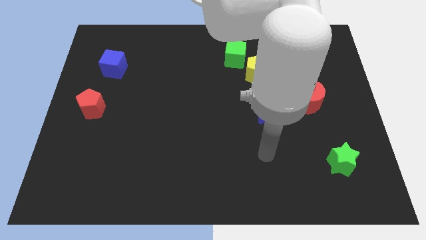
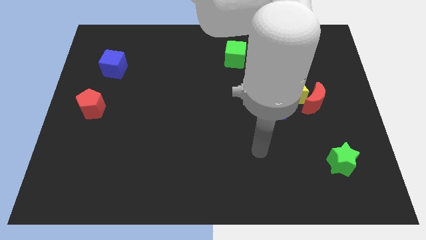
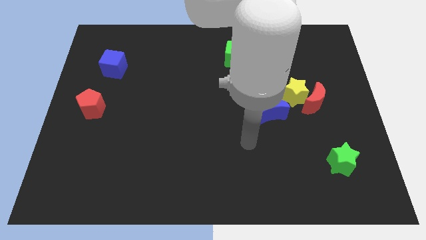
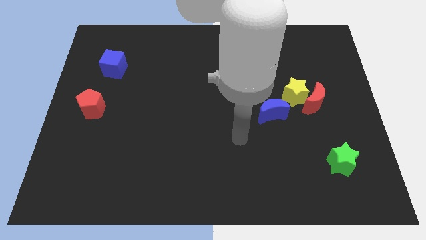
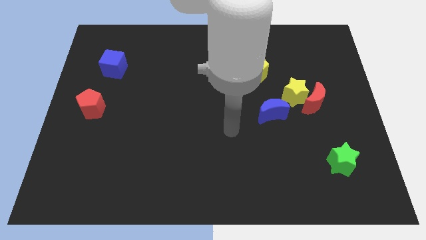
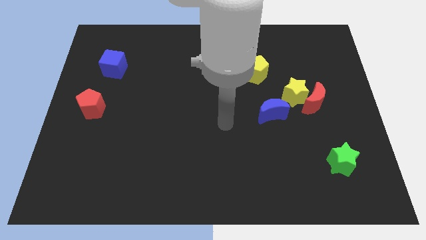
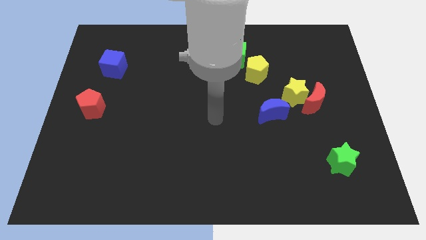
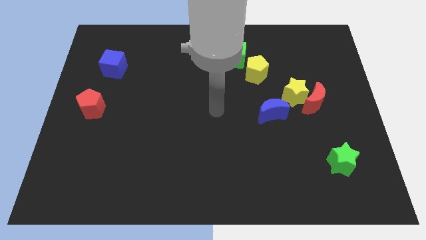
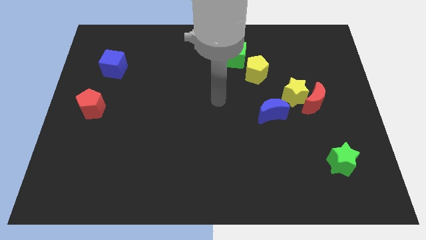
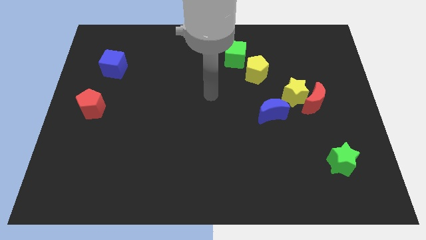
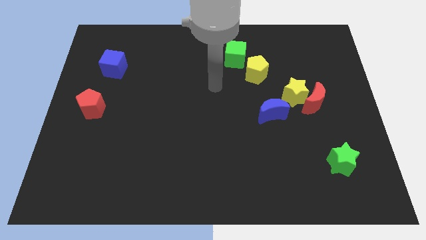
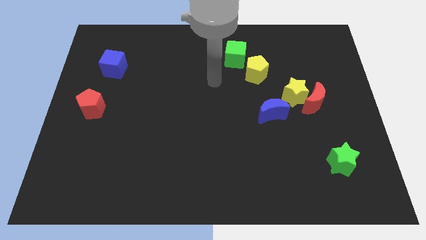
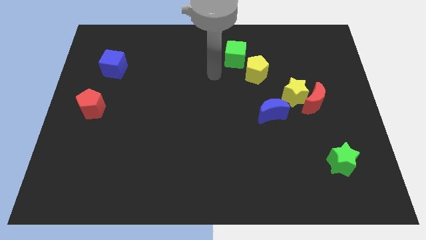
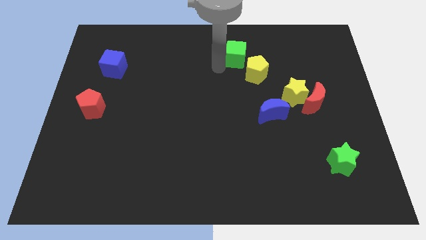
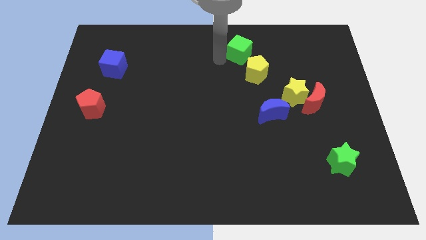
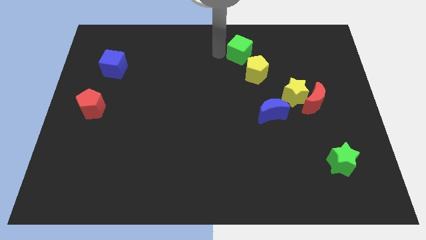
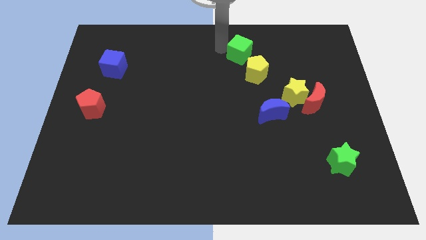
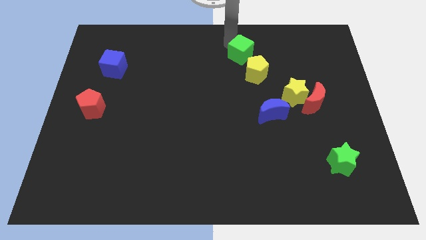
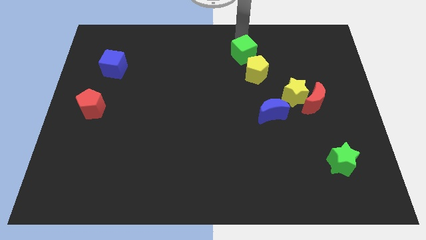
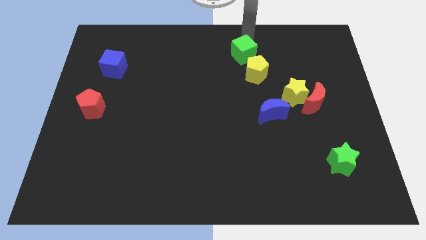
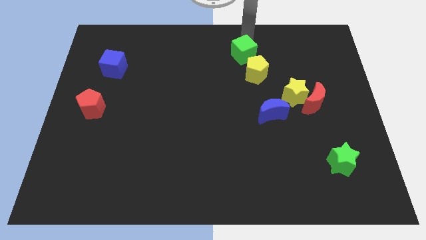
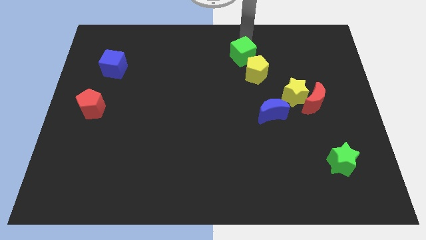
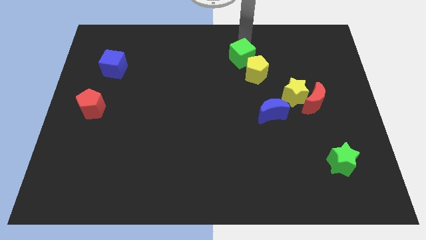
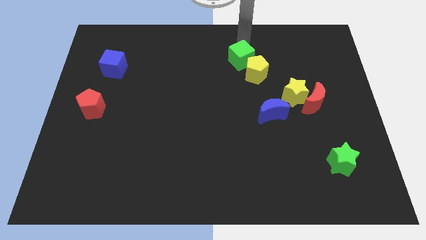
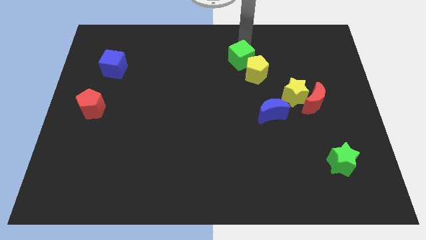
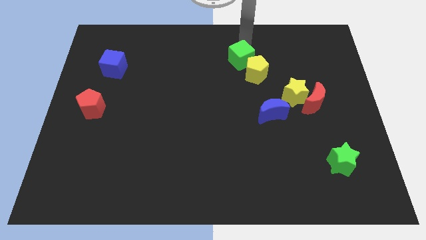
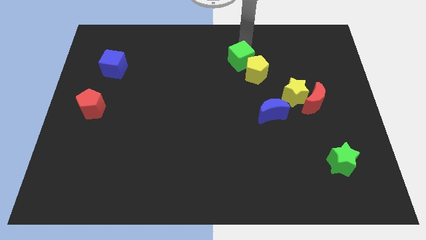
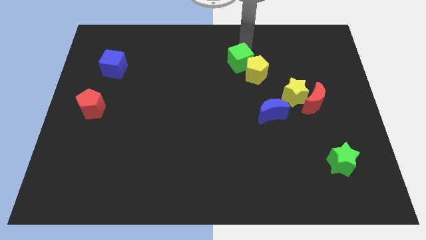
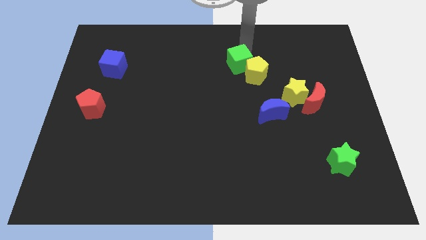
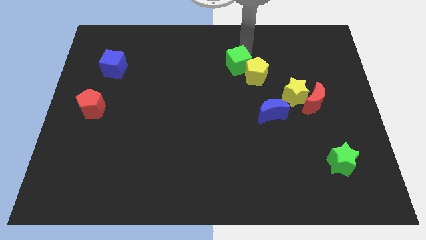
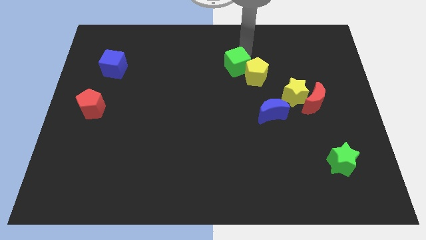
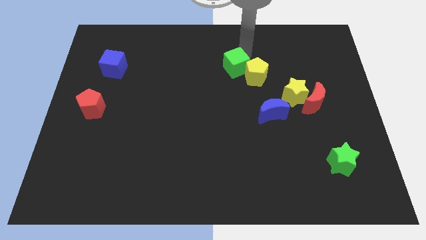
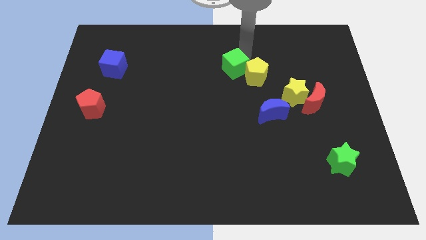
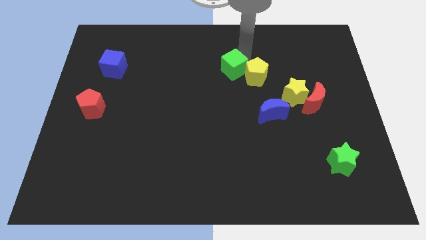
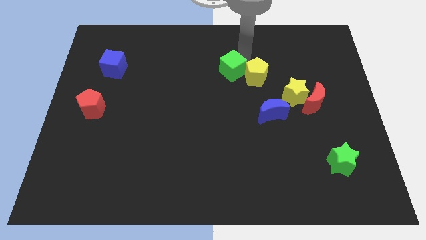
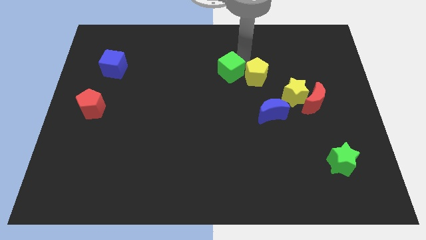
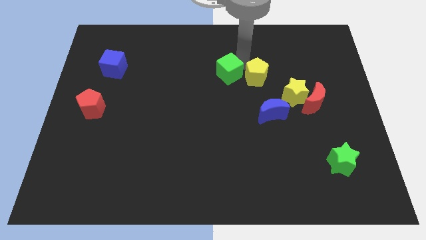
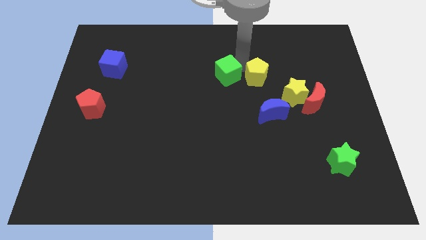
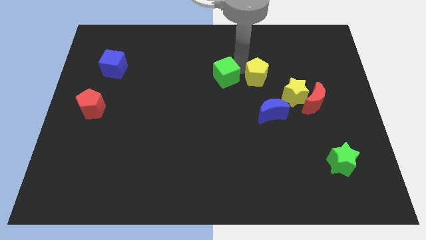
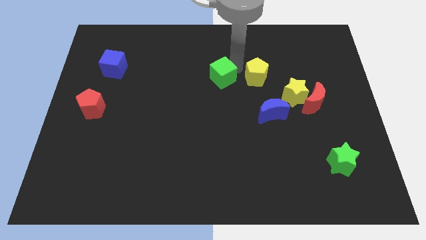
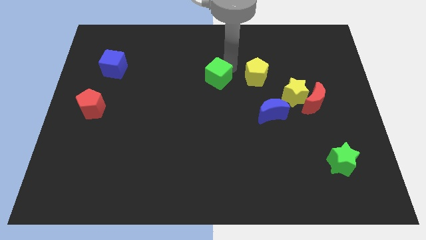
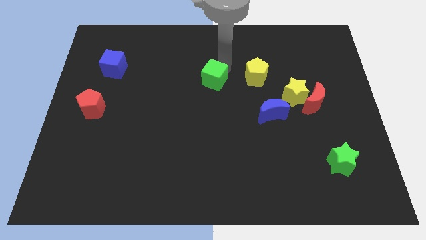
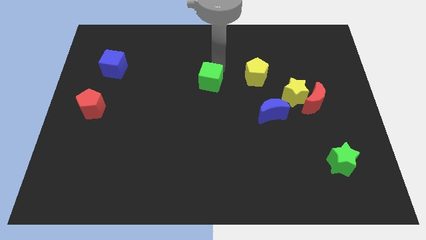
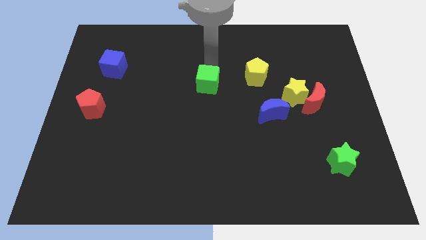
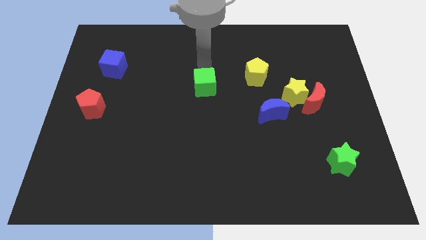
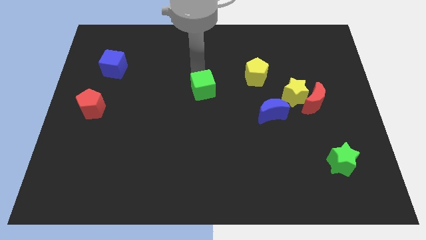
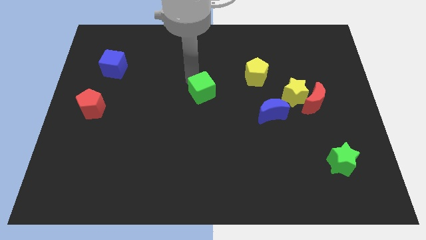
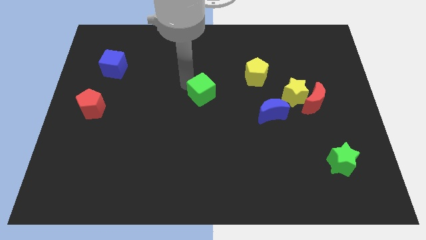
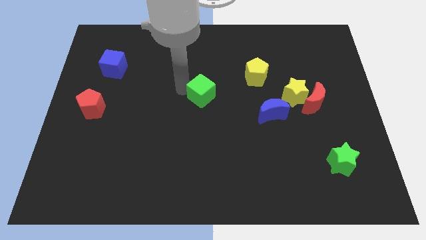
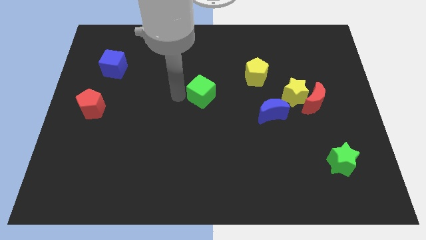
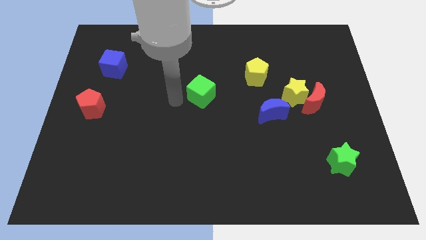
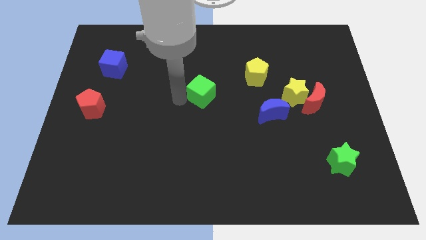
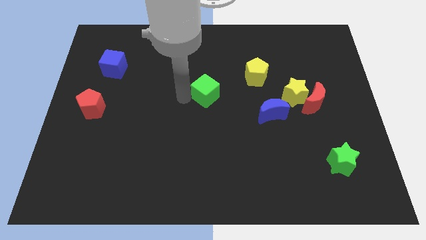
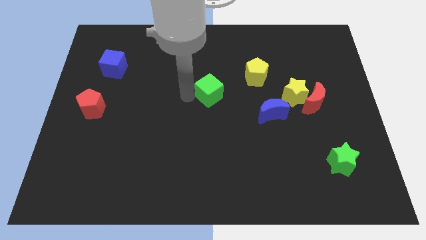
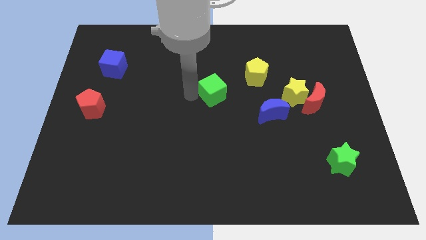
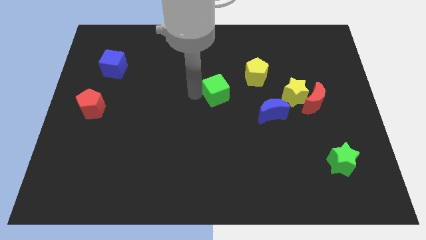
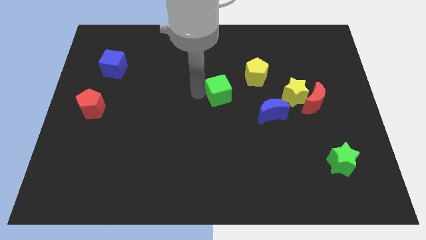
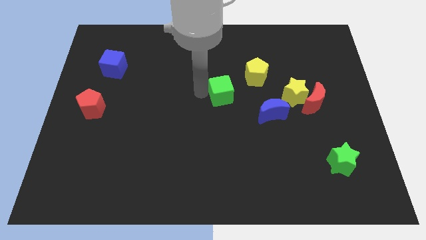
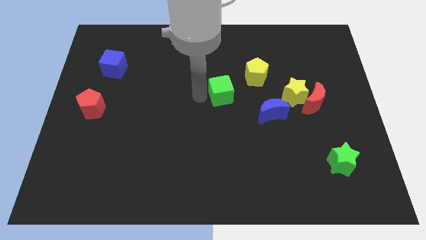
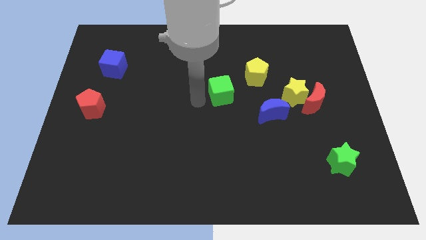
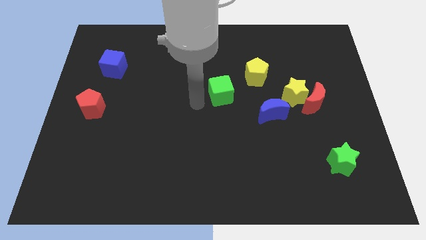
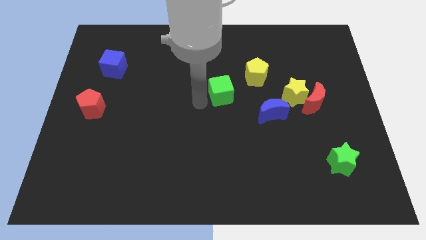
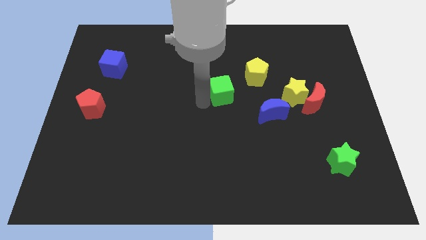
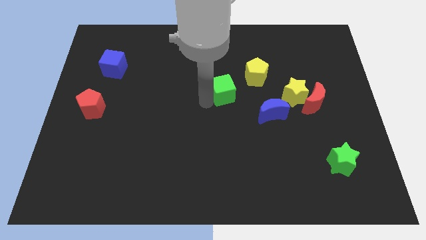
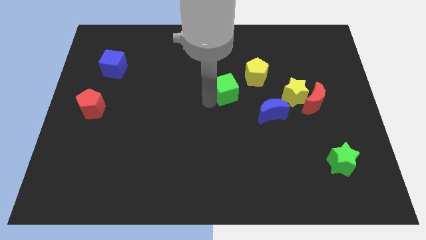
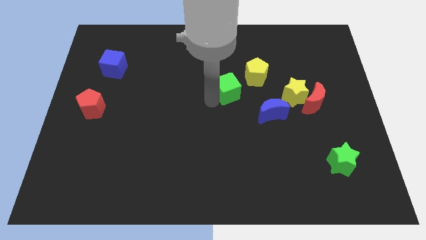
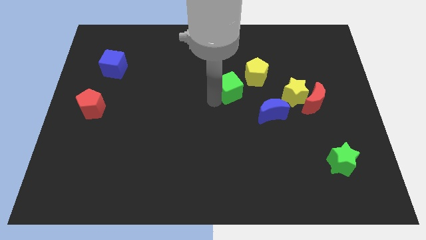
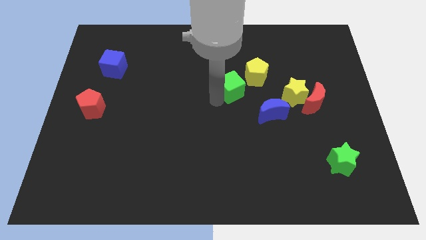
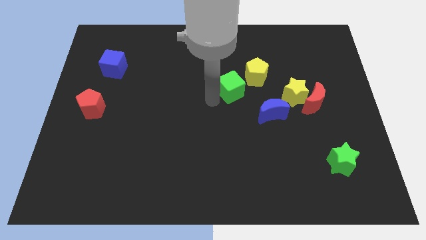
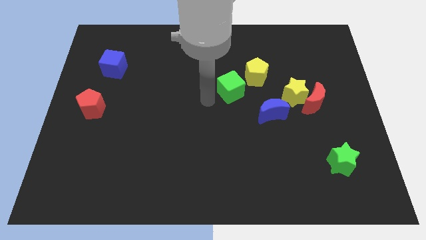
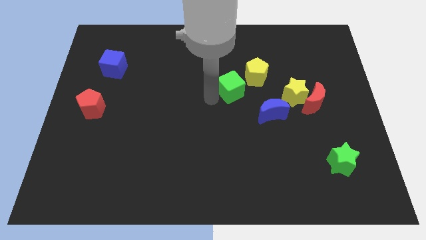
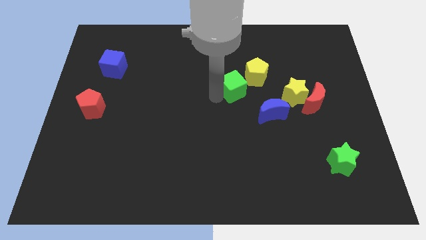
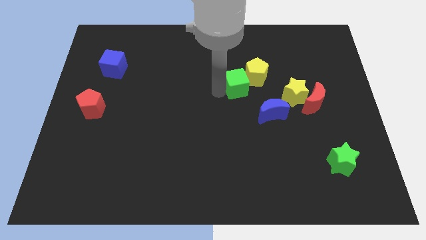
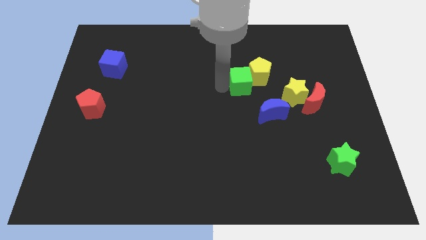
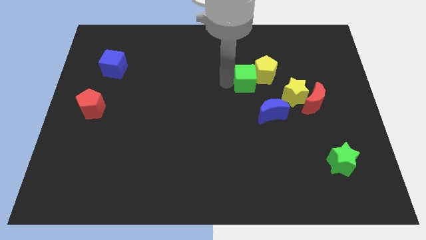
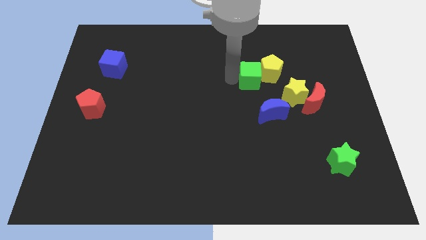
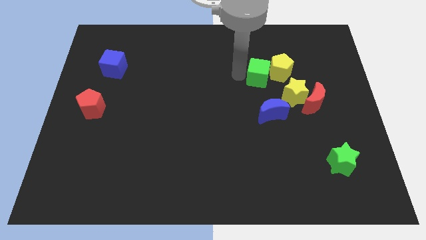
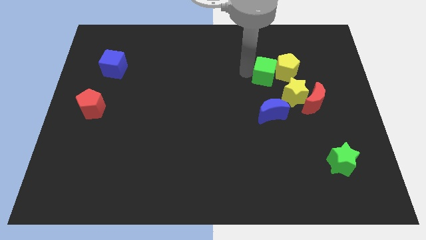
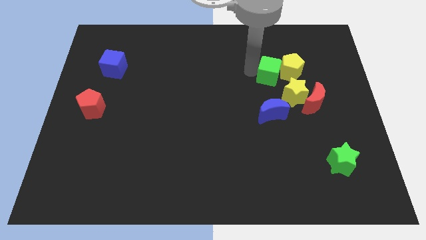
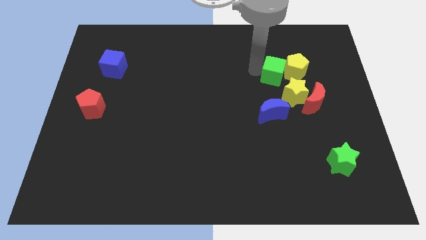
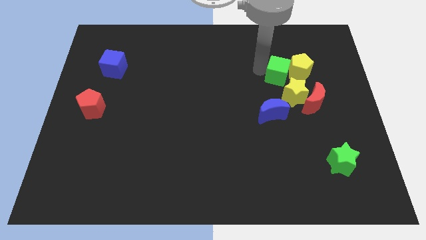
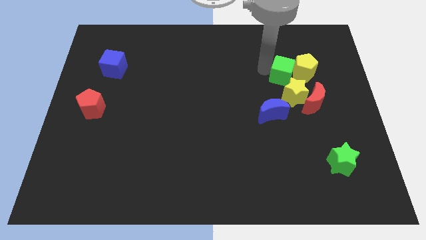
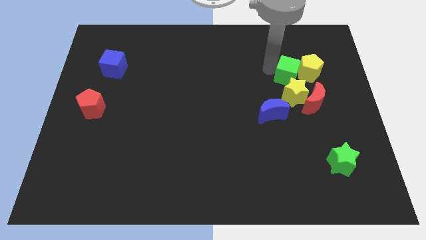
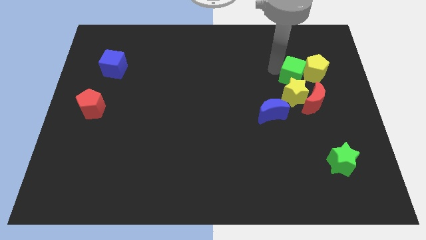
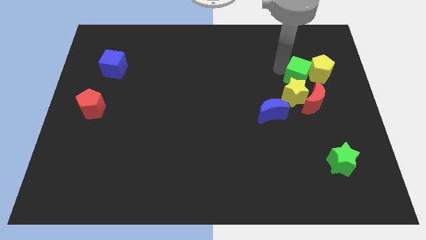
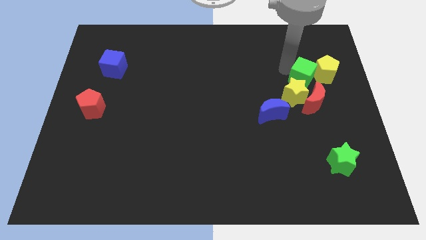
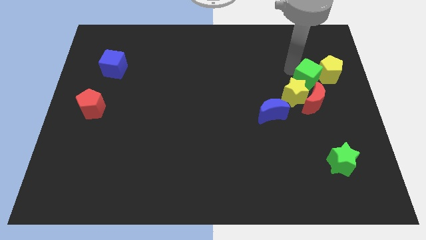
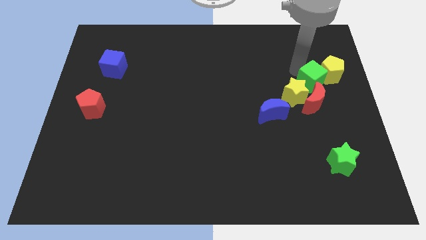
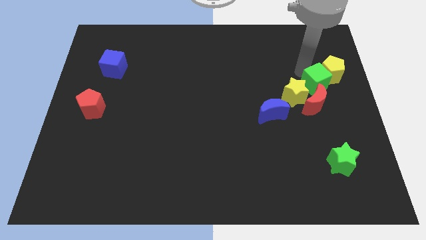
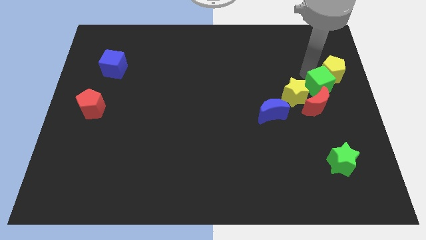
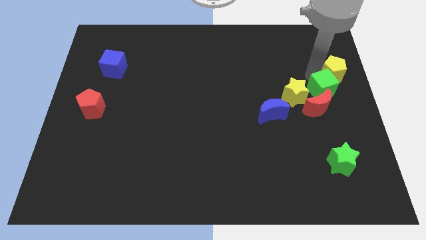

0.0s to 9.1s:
move the green cube diagonally down and right
